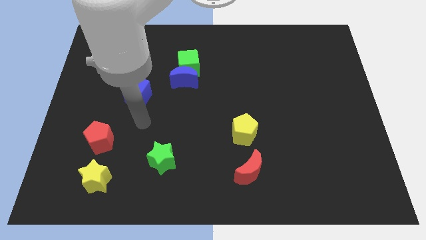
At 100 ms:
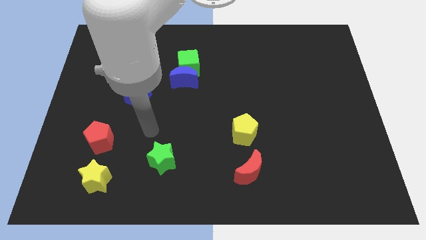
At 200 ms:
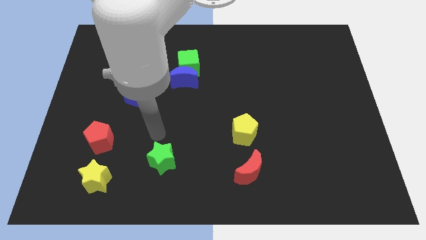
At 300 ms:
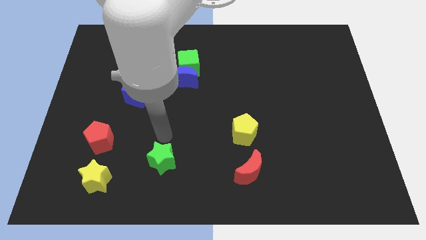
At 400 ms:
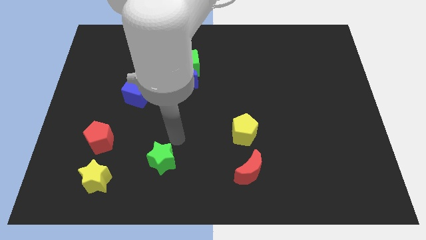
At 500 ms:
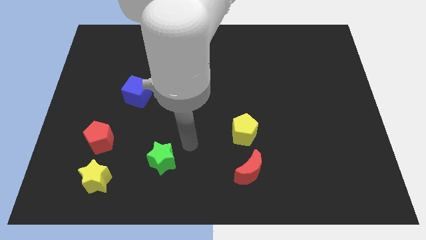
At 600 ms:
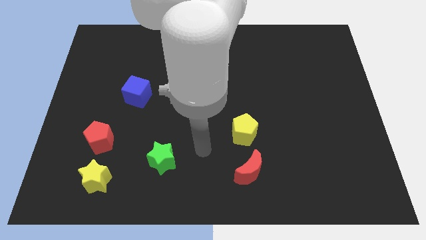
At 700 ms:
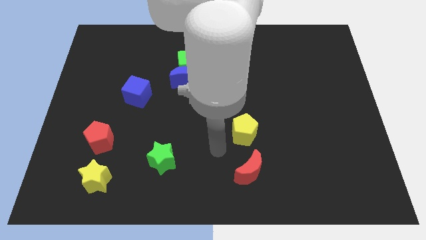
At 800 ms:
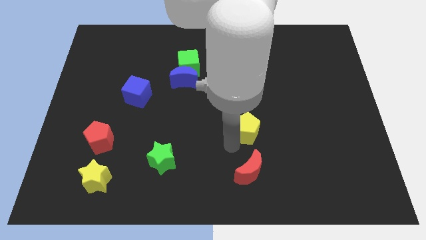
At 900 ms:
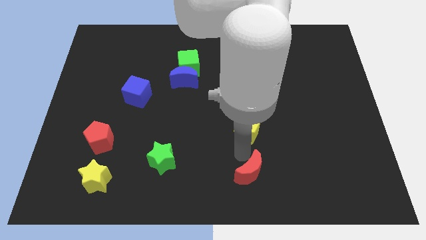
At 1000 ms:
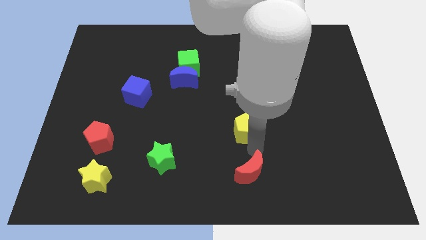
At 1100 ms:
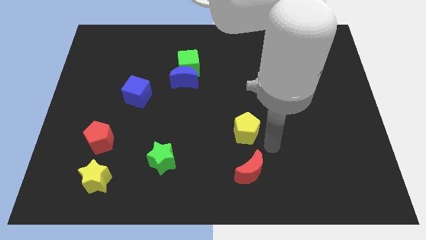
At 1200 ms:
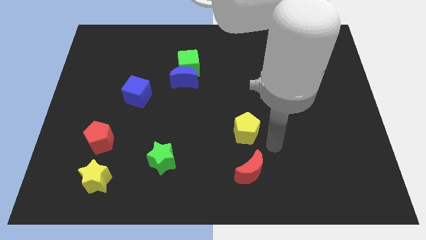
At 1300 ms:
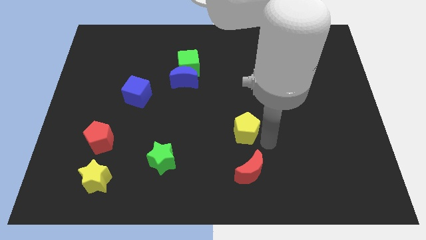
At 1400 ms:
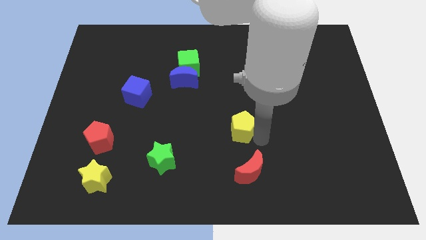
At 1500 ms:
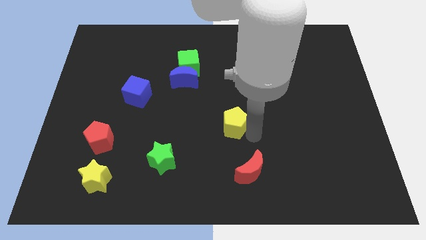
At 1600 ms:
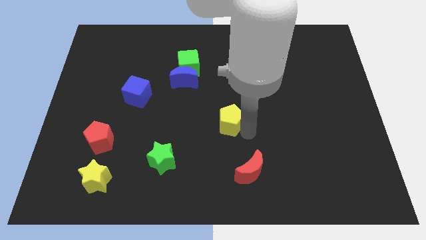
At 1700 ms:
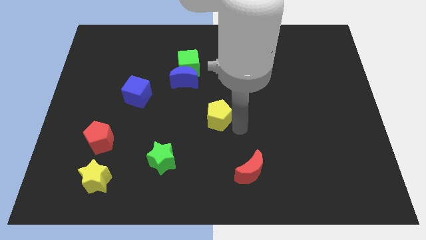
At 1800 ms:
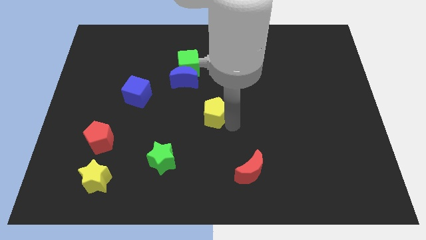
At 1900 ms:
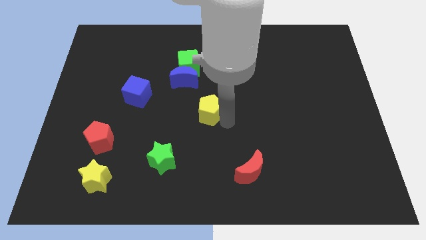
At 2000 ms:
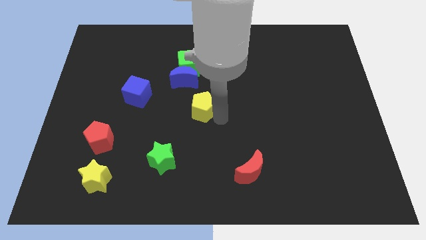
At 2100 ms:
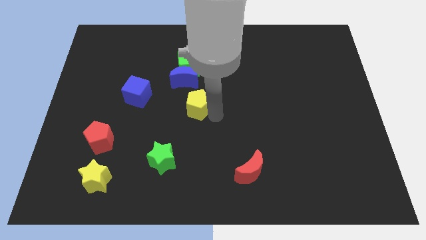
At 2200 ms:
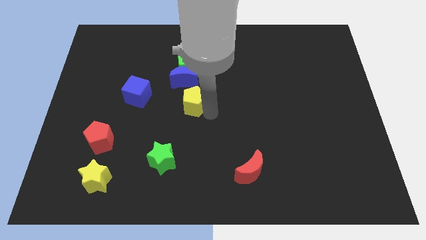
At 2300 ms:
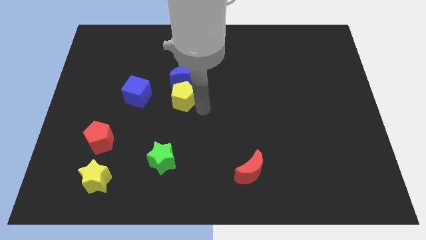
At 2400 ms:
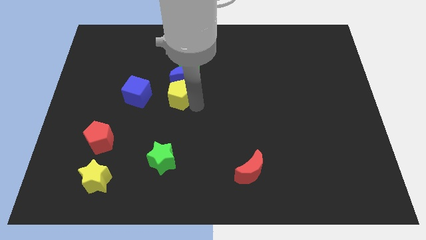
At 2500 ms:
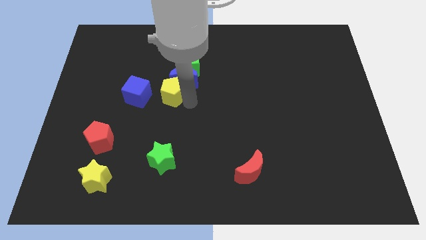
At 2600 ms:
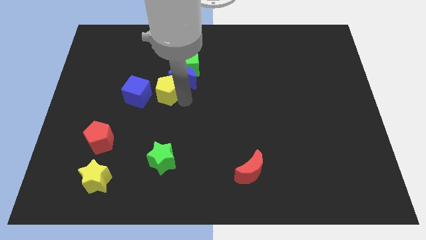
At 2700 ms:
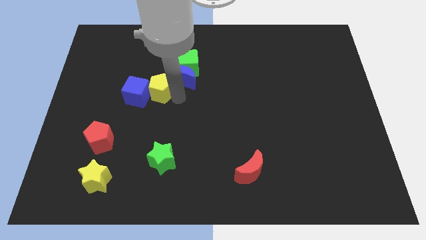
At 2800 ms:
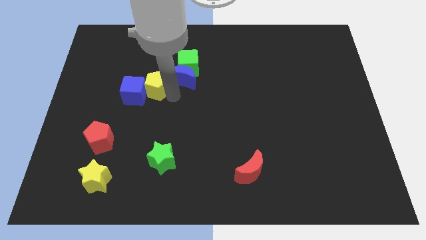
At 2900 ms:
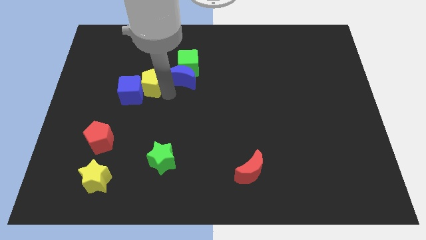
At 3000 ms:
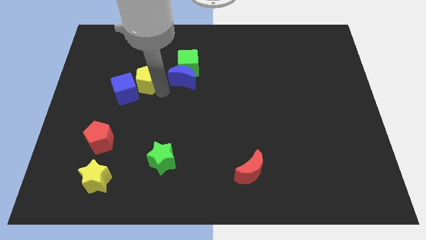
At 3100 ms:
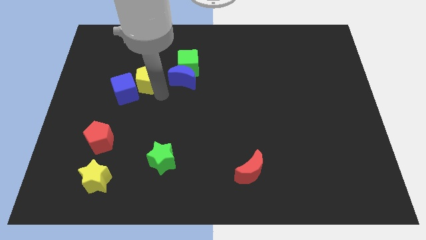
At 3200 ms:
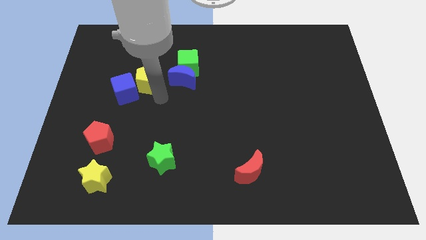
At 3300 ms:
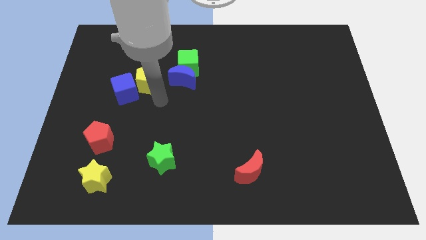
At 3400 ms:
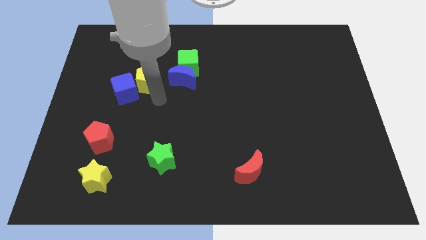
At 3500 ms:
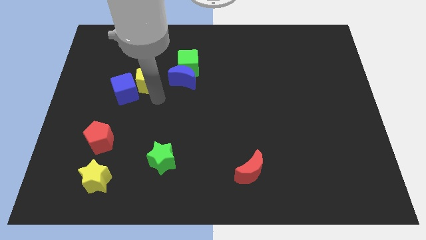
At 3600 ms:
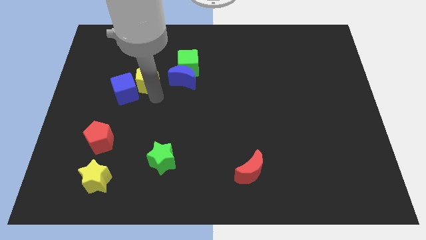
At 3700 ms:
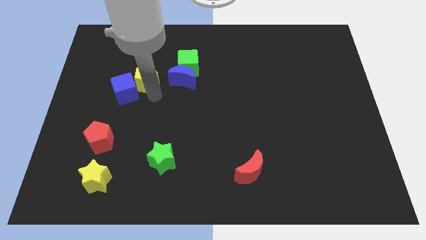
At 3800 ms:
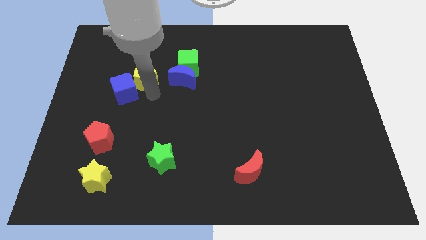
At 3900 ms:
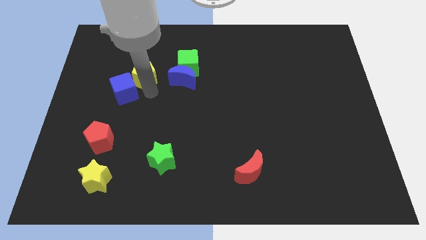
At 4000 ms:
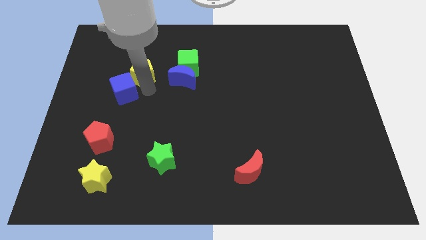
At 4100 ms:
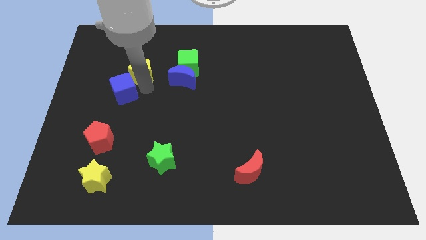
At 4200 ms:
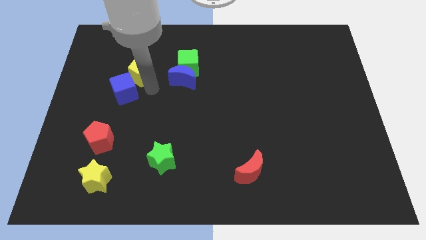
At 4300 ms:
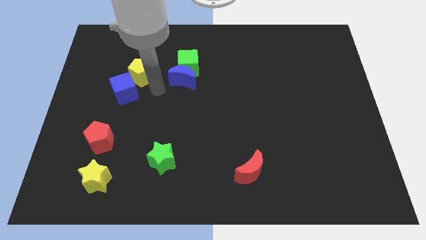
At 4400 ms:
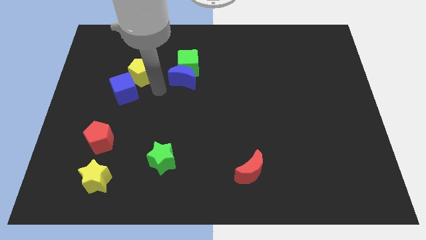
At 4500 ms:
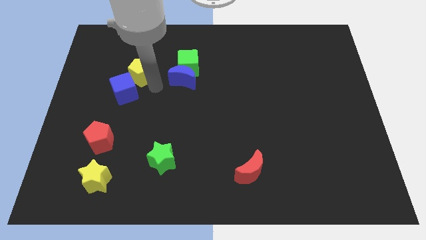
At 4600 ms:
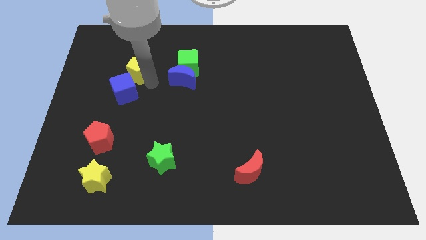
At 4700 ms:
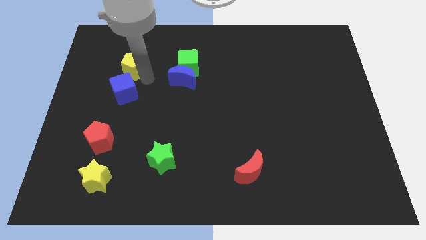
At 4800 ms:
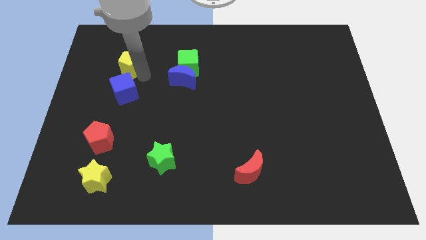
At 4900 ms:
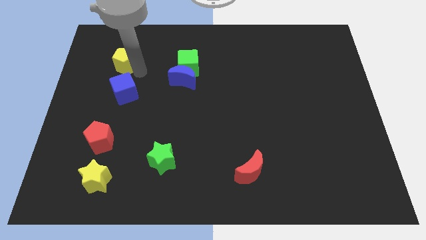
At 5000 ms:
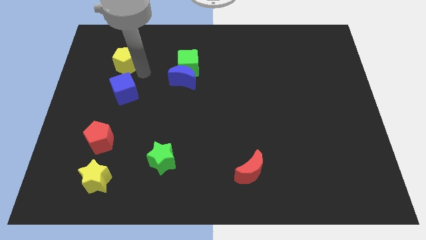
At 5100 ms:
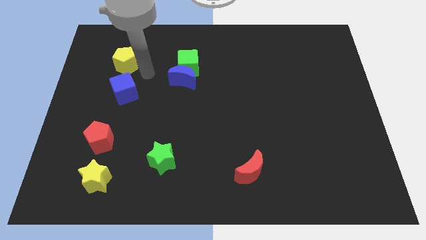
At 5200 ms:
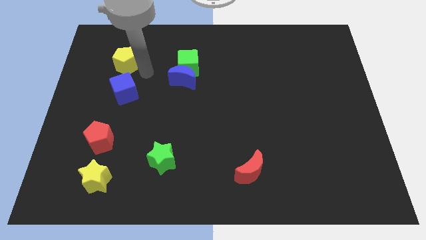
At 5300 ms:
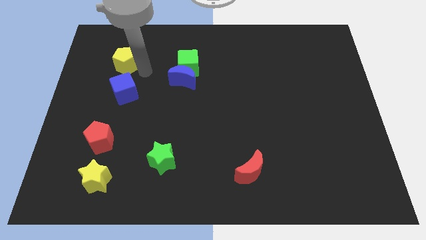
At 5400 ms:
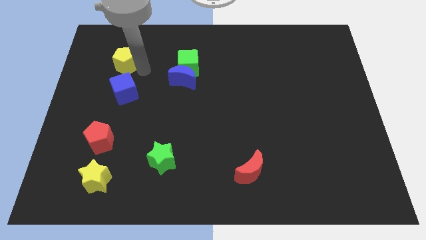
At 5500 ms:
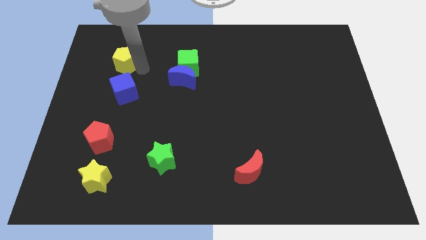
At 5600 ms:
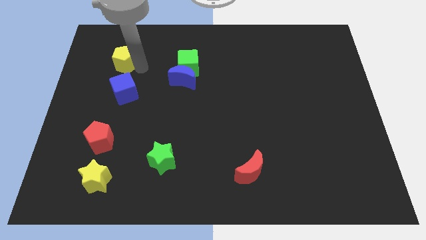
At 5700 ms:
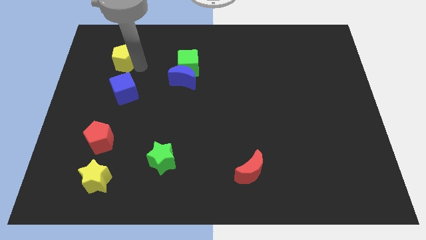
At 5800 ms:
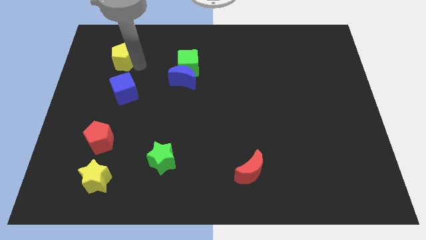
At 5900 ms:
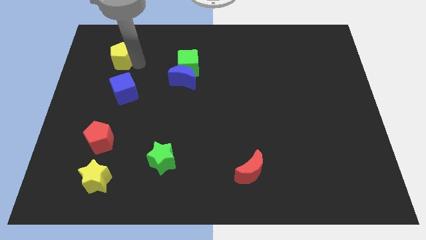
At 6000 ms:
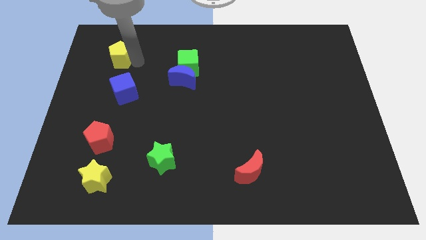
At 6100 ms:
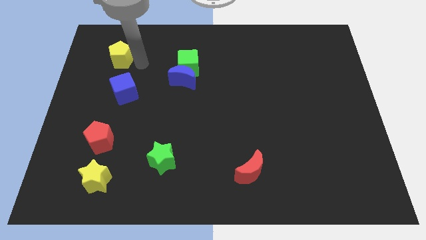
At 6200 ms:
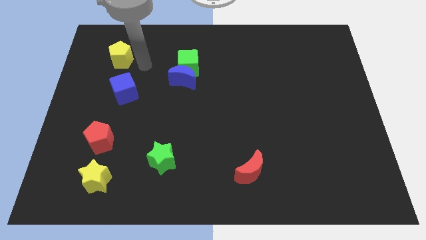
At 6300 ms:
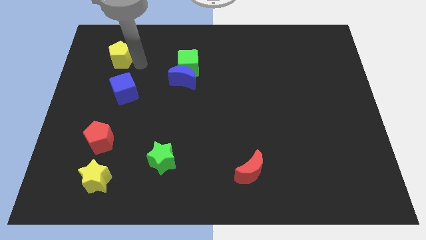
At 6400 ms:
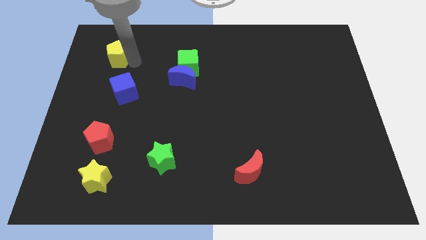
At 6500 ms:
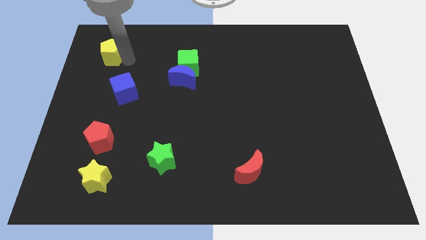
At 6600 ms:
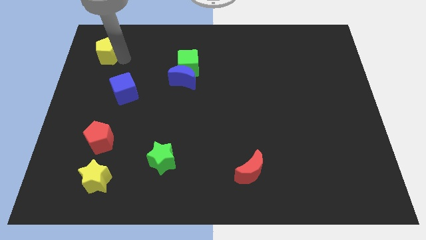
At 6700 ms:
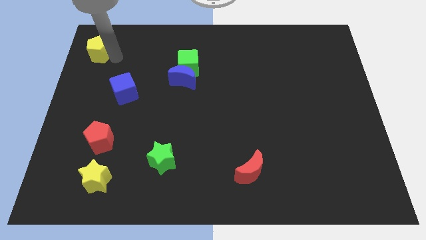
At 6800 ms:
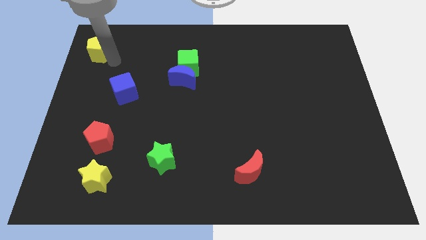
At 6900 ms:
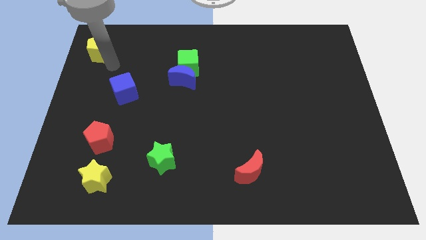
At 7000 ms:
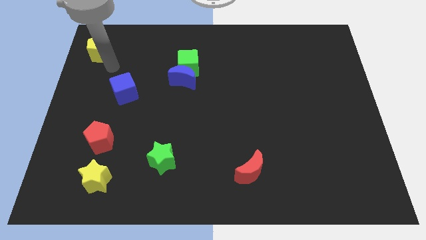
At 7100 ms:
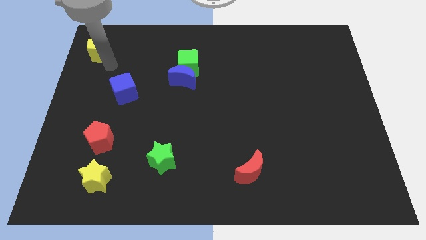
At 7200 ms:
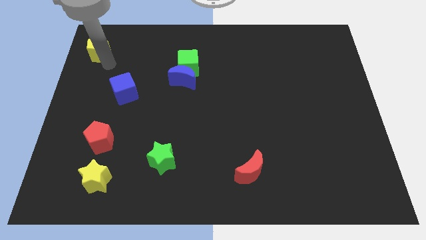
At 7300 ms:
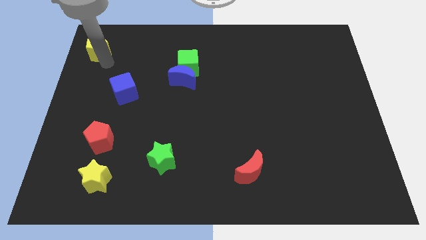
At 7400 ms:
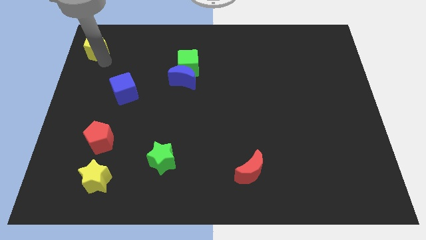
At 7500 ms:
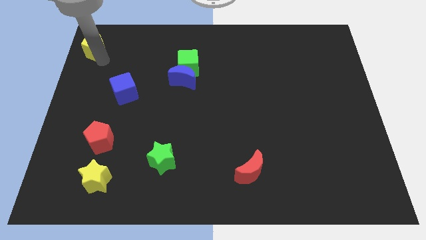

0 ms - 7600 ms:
move the yellow pentagon to the top left corner

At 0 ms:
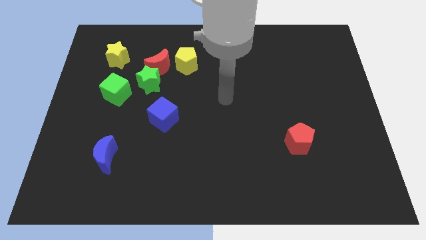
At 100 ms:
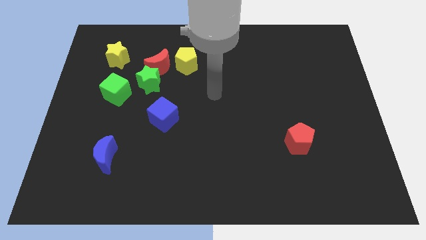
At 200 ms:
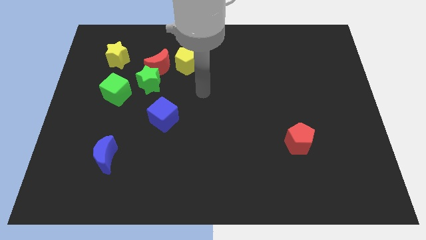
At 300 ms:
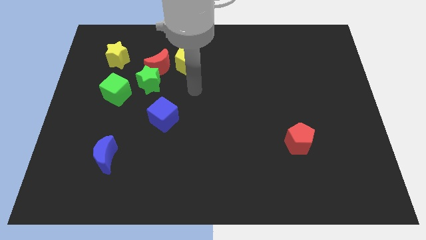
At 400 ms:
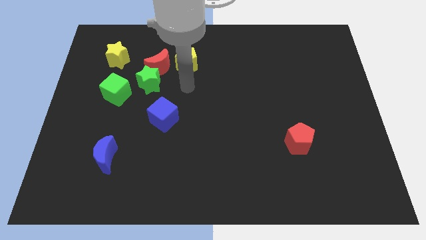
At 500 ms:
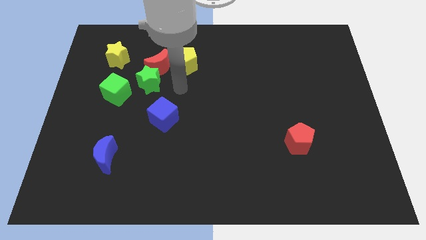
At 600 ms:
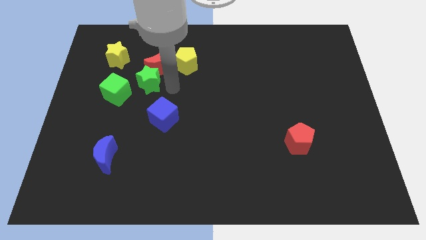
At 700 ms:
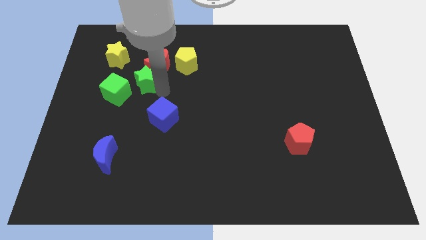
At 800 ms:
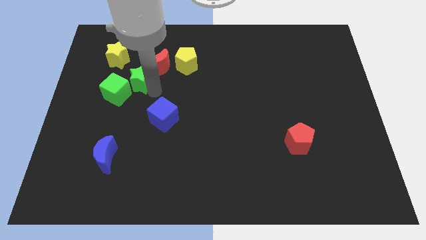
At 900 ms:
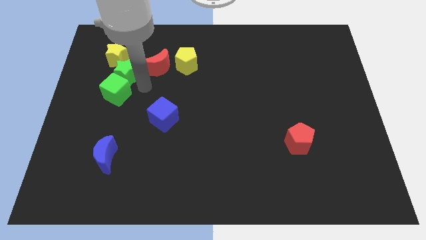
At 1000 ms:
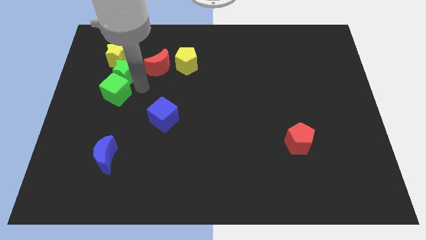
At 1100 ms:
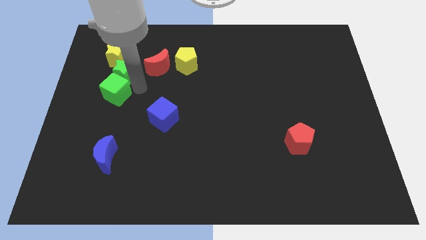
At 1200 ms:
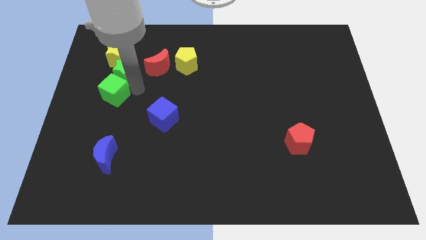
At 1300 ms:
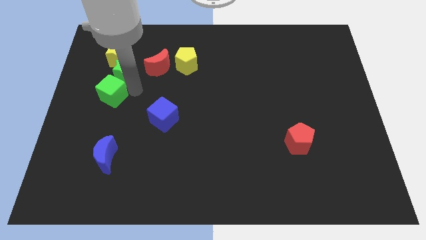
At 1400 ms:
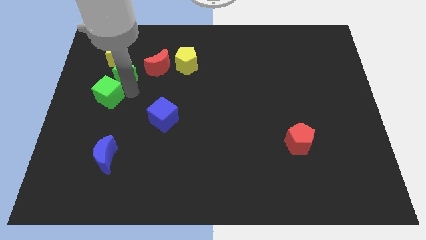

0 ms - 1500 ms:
put the green cube to the left side of the board
